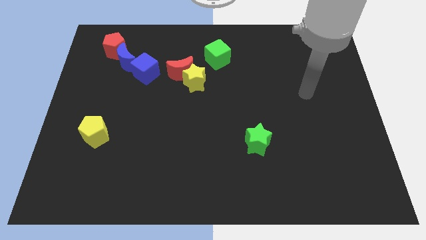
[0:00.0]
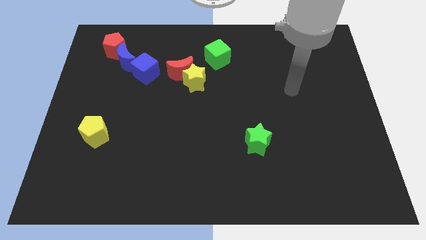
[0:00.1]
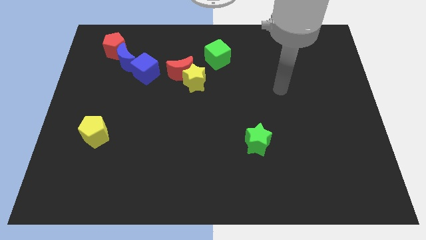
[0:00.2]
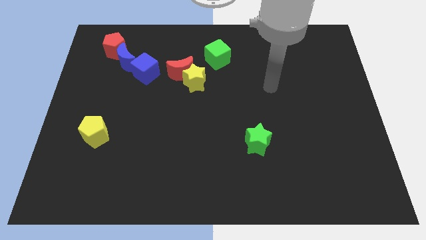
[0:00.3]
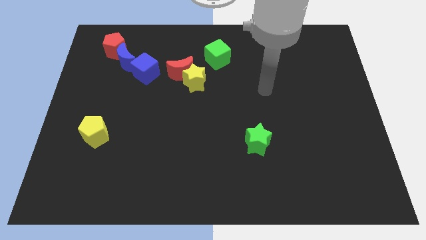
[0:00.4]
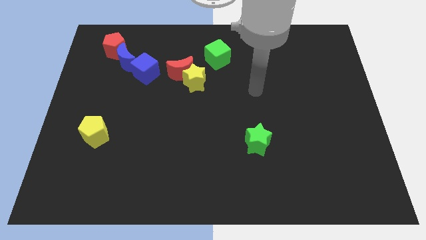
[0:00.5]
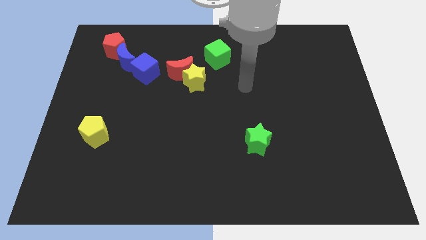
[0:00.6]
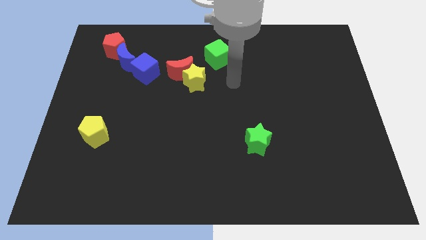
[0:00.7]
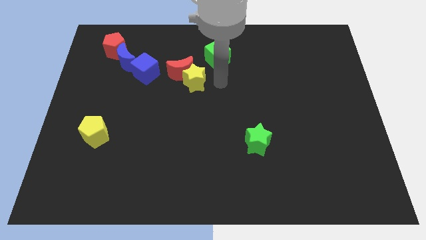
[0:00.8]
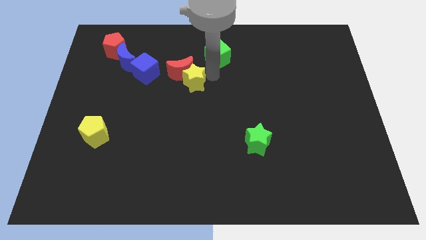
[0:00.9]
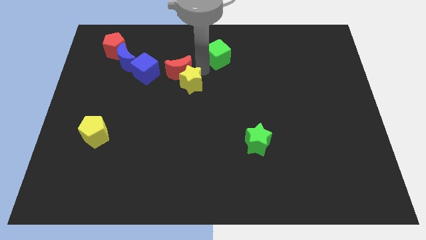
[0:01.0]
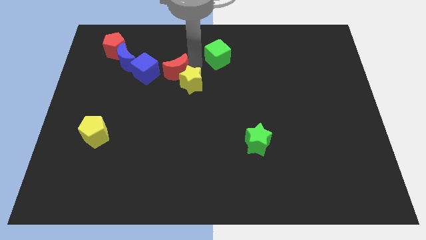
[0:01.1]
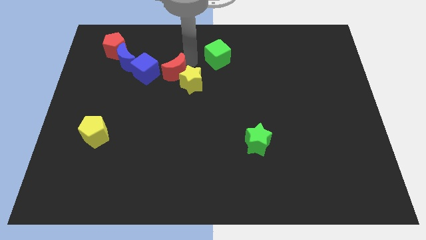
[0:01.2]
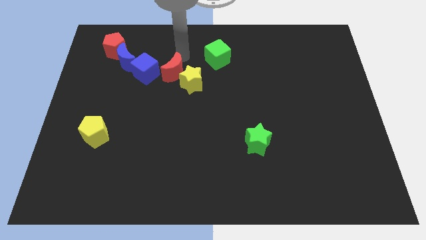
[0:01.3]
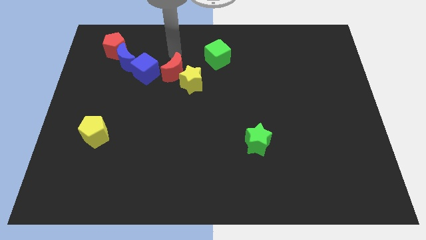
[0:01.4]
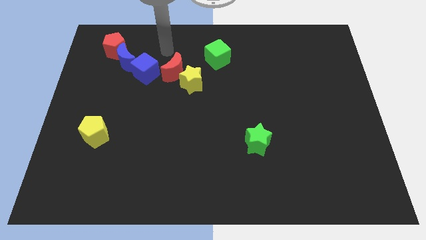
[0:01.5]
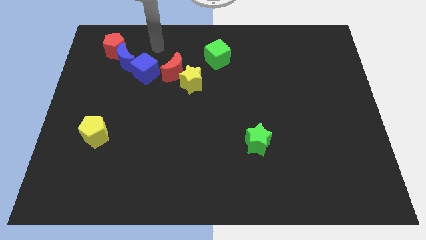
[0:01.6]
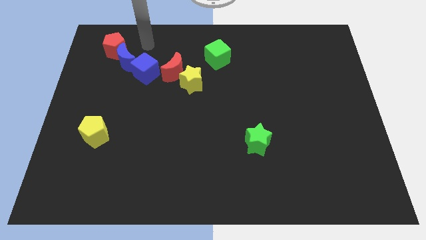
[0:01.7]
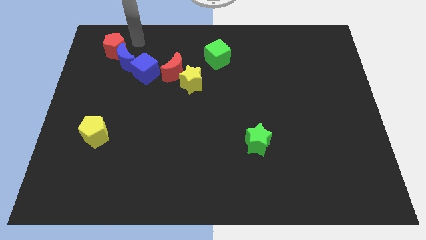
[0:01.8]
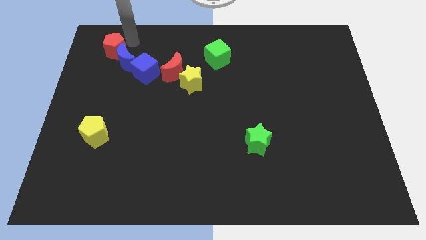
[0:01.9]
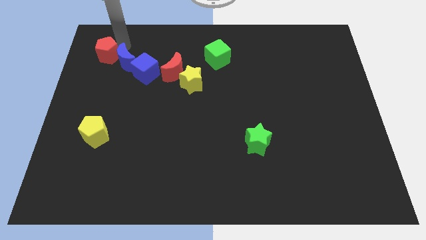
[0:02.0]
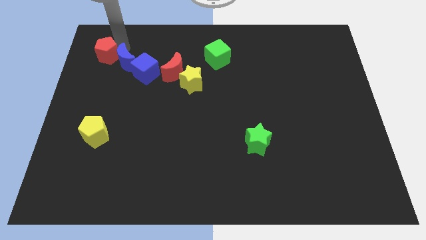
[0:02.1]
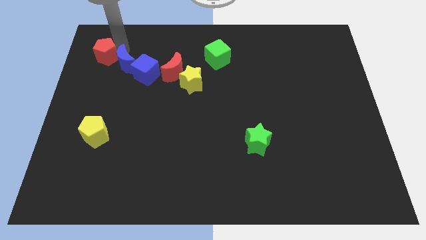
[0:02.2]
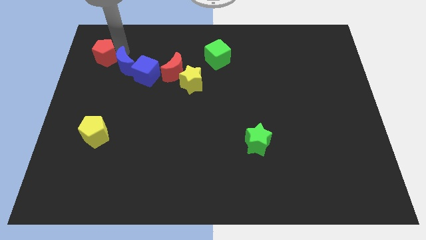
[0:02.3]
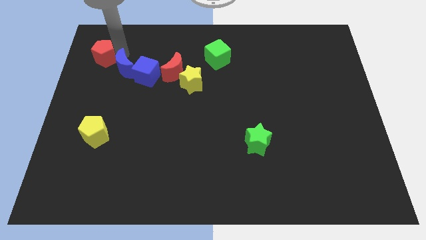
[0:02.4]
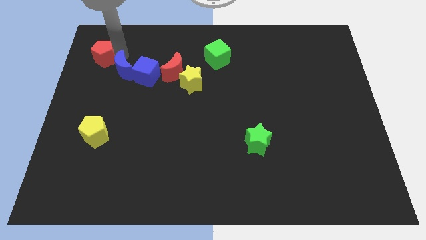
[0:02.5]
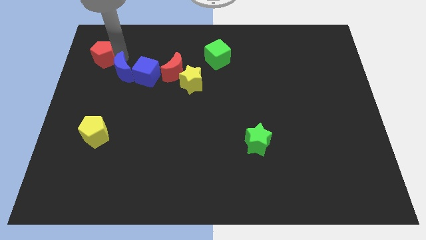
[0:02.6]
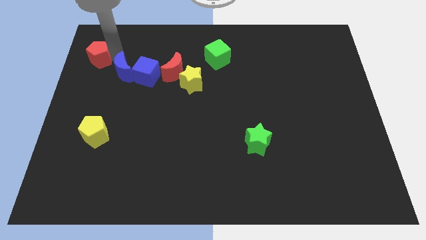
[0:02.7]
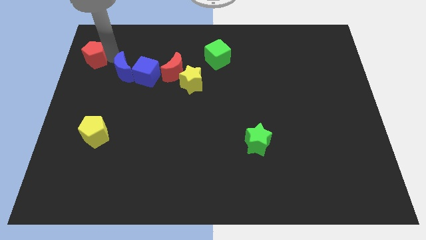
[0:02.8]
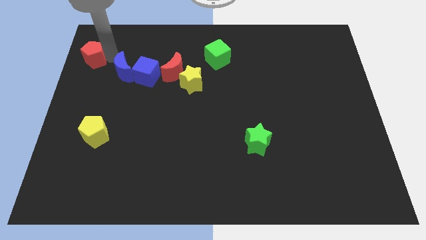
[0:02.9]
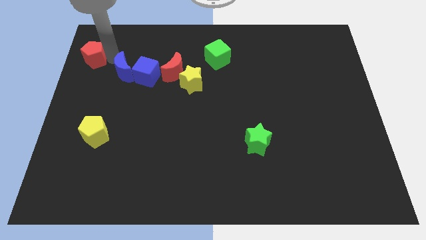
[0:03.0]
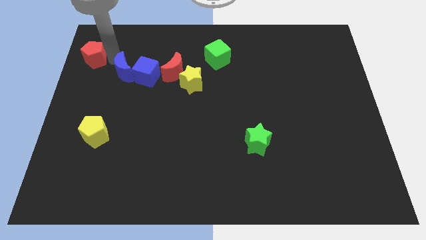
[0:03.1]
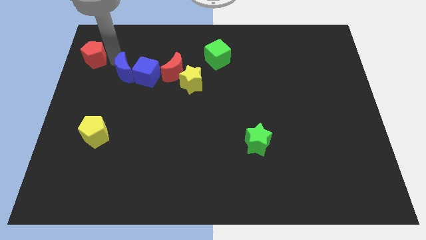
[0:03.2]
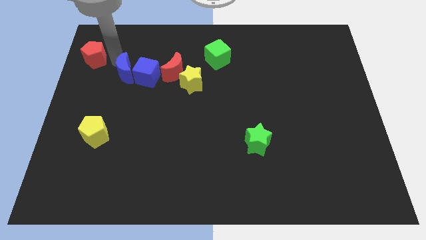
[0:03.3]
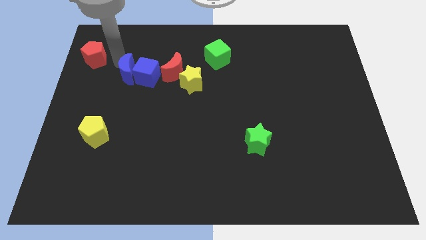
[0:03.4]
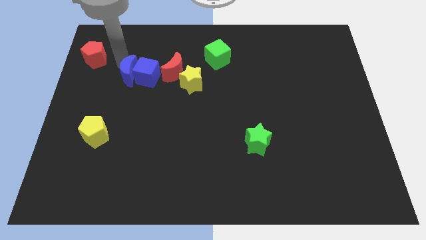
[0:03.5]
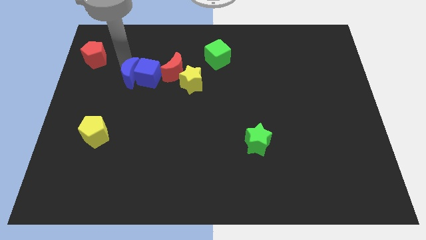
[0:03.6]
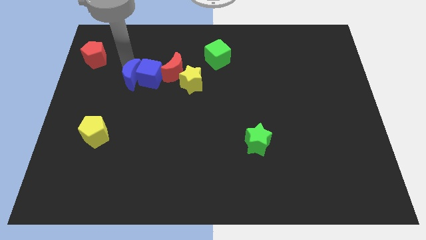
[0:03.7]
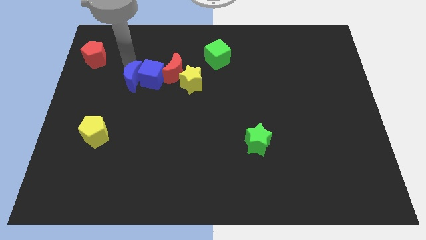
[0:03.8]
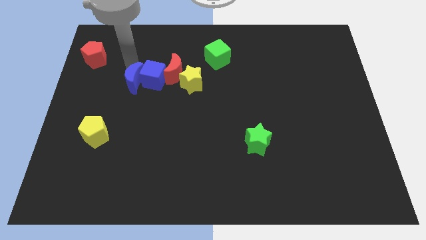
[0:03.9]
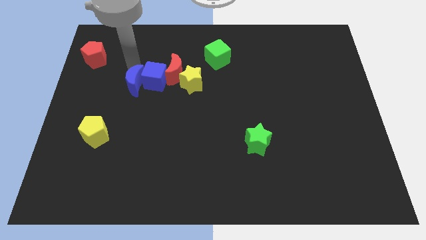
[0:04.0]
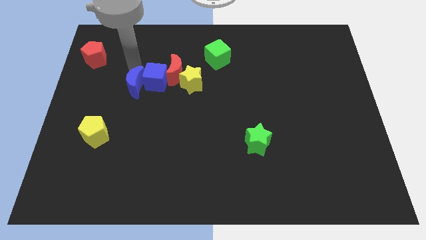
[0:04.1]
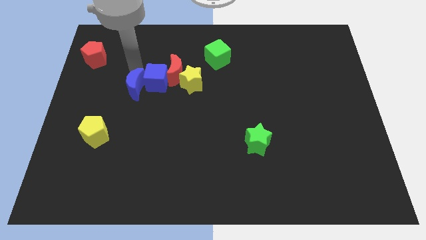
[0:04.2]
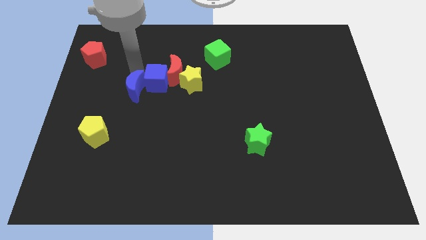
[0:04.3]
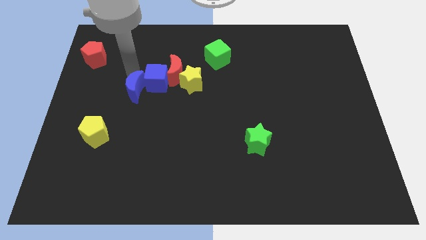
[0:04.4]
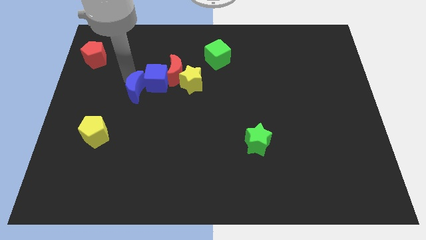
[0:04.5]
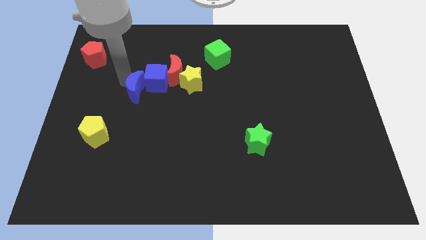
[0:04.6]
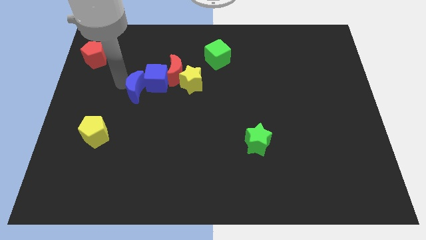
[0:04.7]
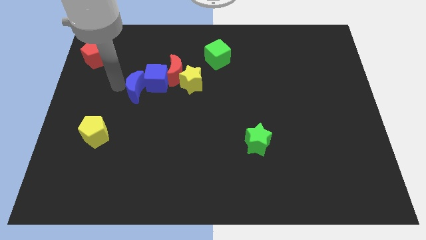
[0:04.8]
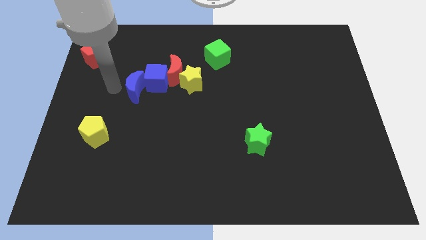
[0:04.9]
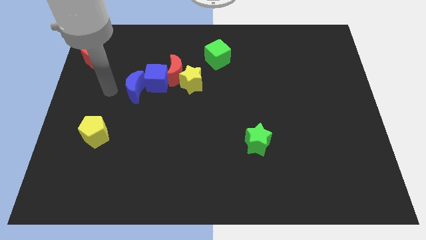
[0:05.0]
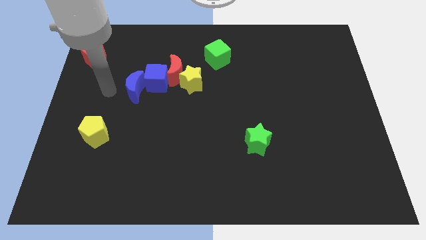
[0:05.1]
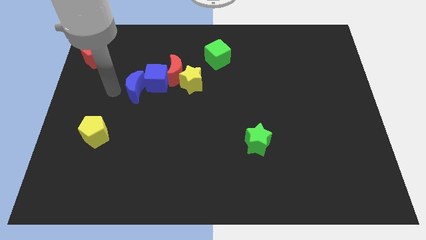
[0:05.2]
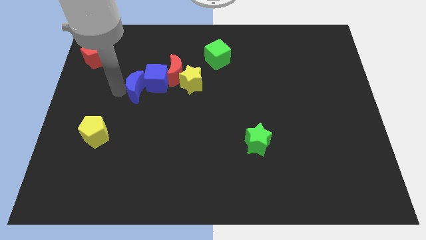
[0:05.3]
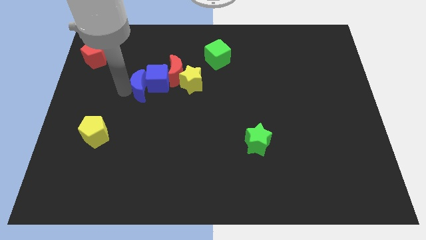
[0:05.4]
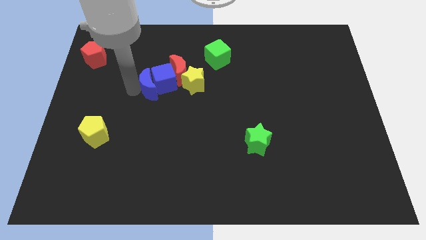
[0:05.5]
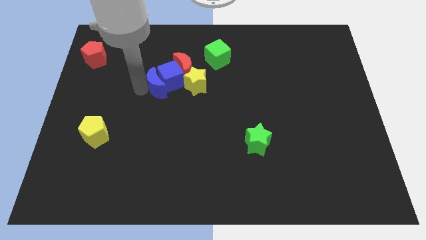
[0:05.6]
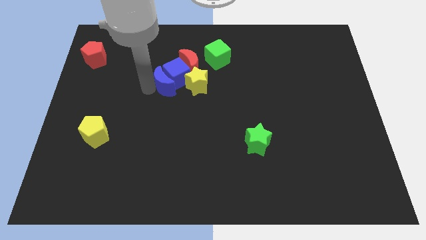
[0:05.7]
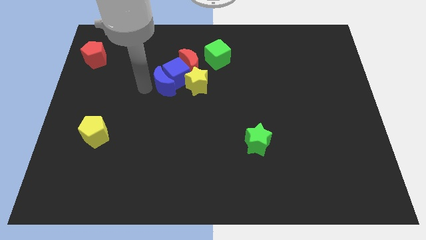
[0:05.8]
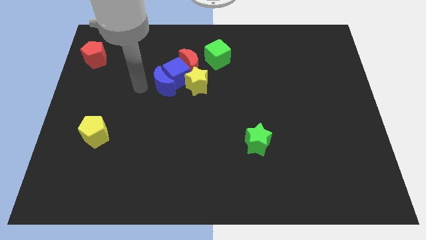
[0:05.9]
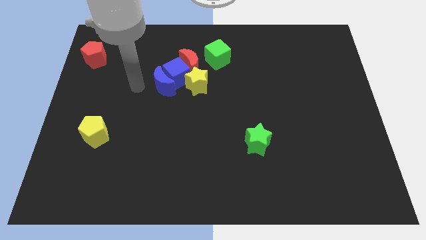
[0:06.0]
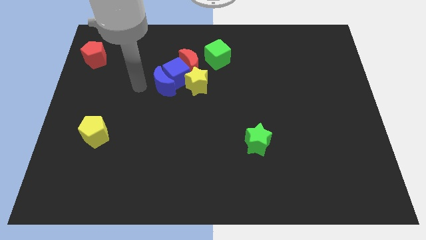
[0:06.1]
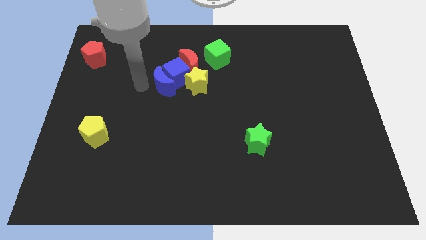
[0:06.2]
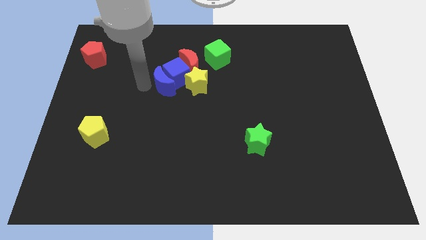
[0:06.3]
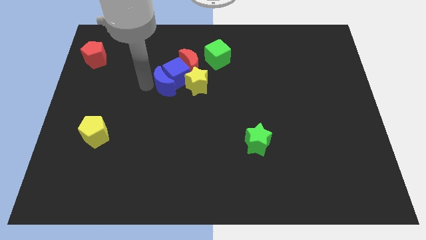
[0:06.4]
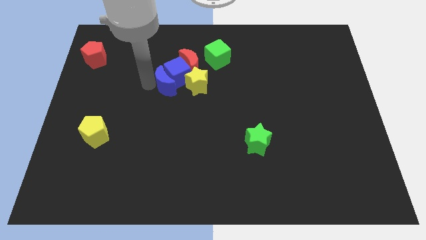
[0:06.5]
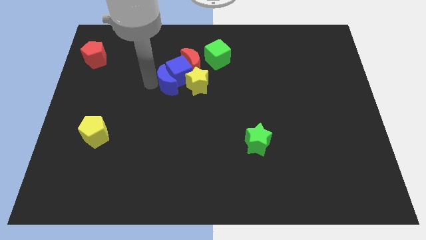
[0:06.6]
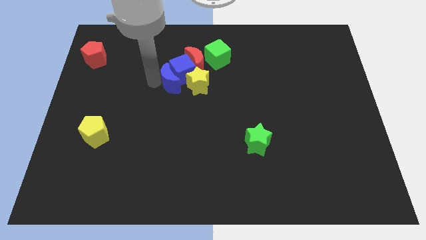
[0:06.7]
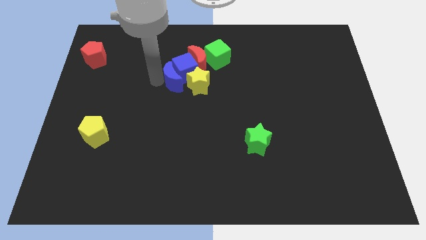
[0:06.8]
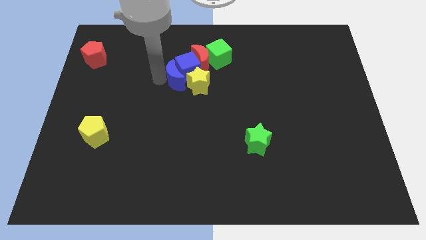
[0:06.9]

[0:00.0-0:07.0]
push the blue moon next to the yellow star

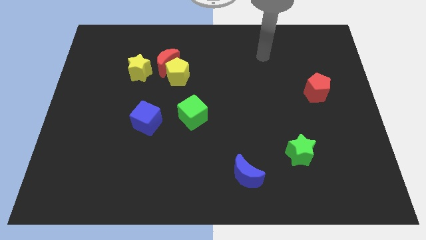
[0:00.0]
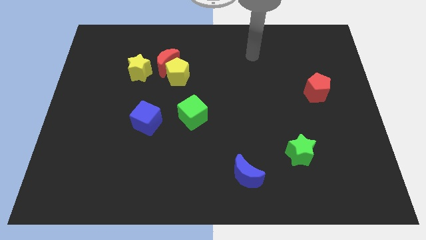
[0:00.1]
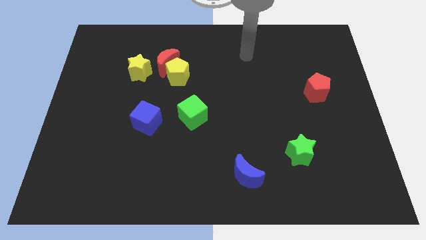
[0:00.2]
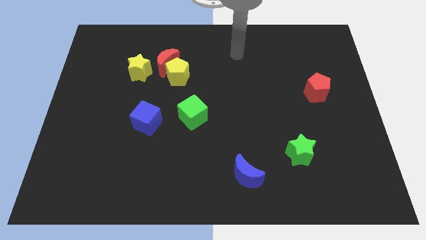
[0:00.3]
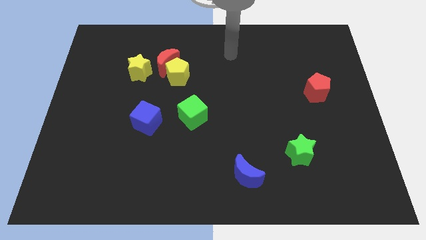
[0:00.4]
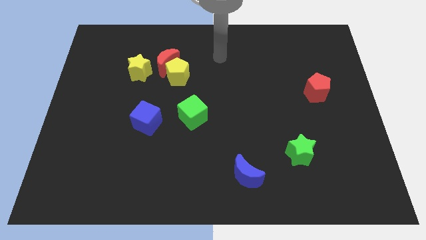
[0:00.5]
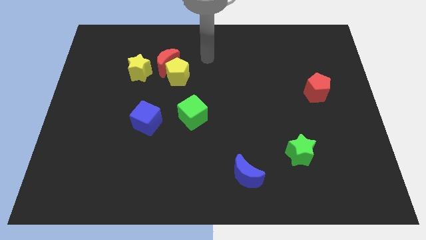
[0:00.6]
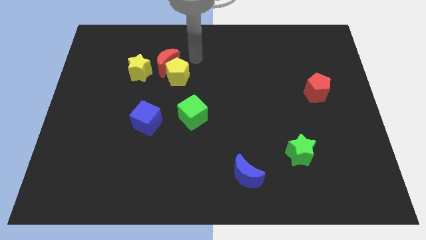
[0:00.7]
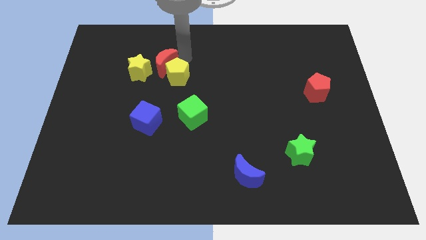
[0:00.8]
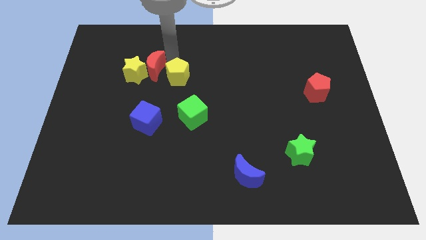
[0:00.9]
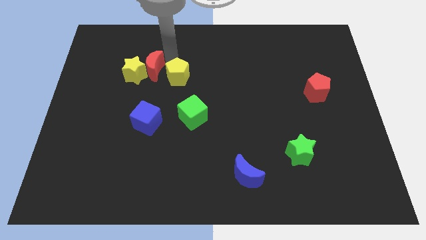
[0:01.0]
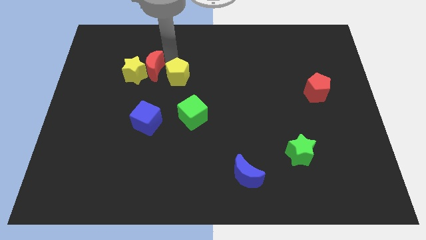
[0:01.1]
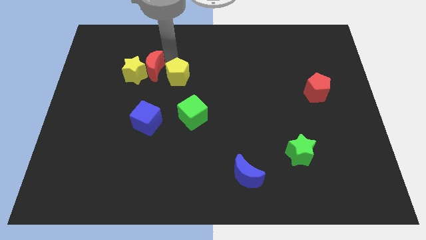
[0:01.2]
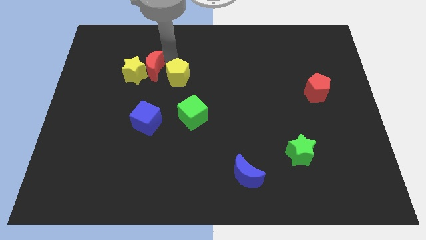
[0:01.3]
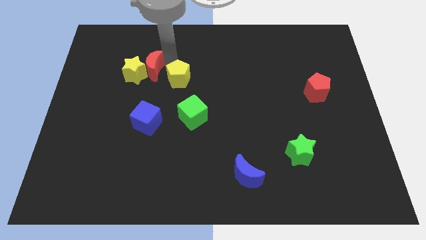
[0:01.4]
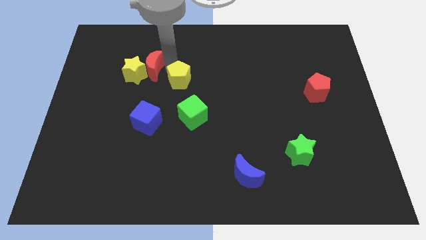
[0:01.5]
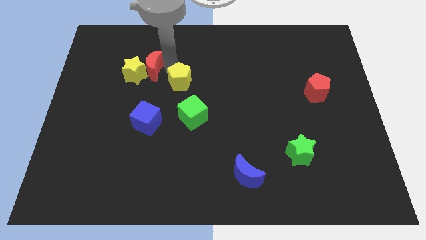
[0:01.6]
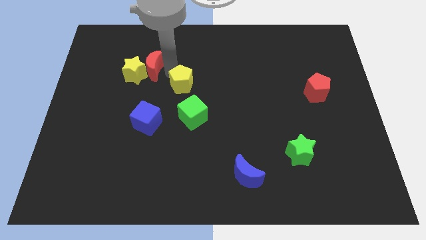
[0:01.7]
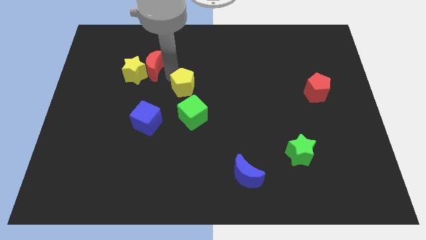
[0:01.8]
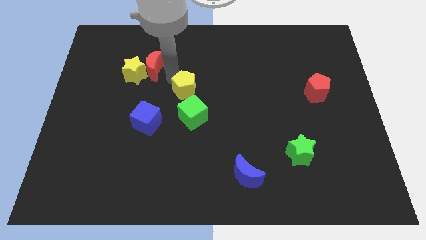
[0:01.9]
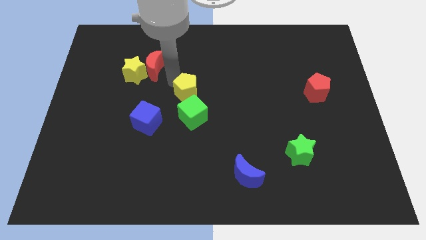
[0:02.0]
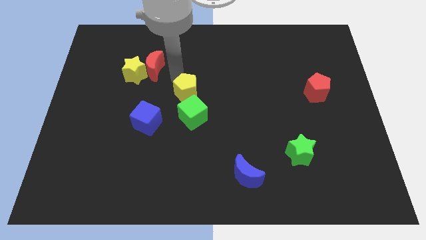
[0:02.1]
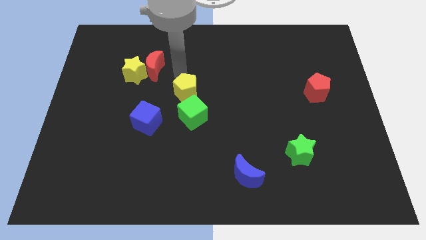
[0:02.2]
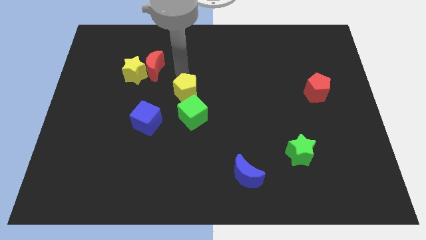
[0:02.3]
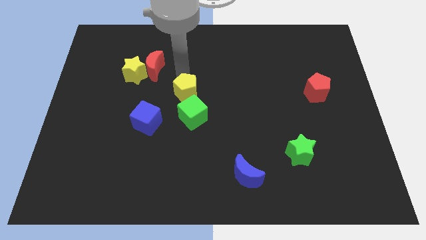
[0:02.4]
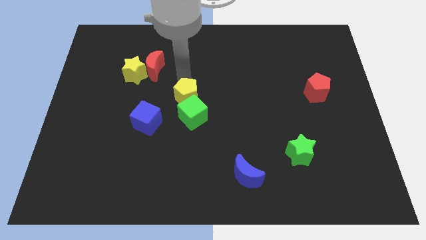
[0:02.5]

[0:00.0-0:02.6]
put the yellow pentagon to the green cube
